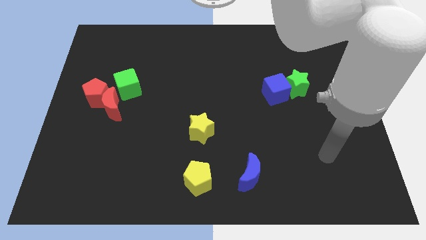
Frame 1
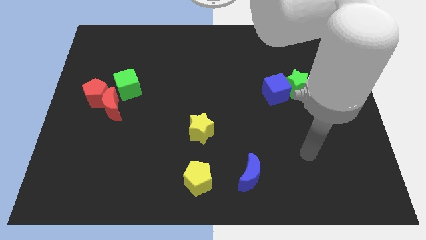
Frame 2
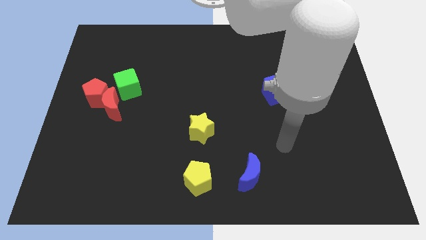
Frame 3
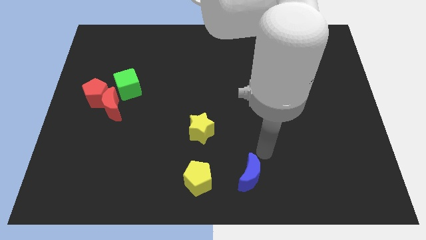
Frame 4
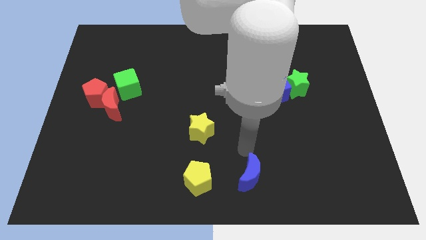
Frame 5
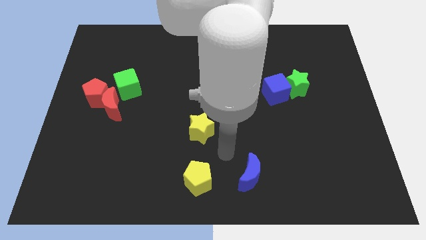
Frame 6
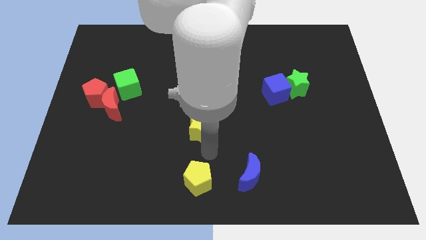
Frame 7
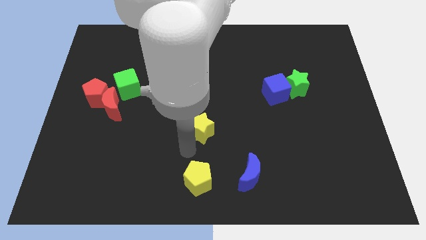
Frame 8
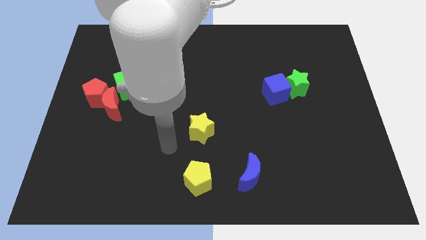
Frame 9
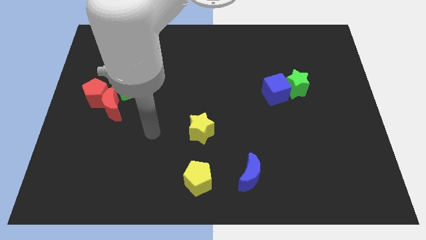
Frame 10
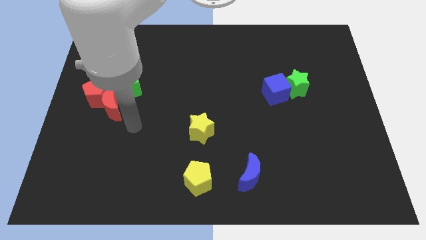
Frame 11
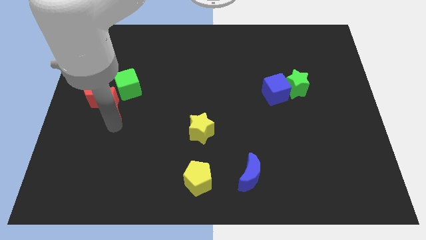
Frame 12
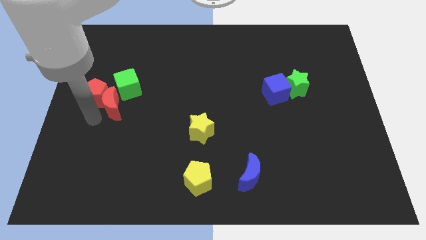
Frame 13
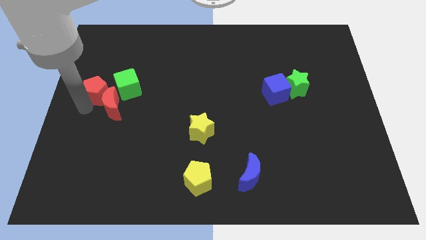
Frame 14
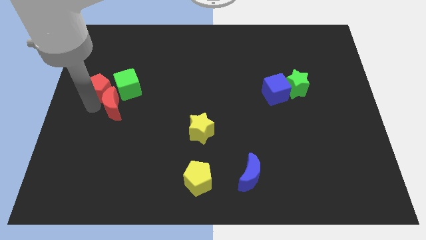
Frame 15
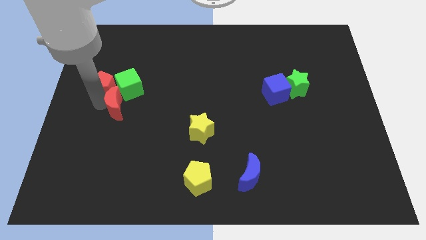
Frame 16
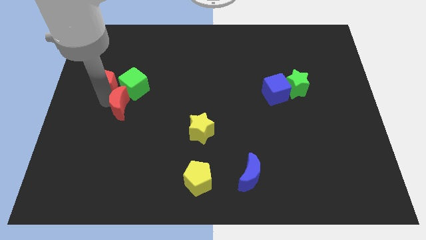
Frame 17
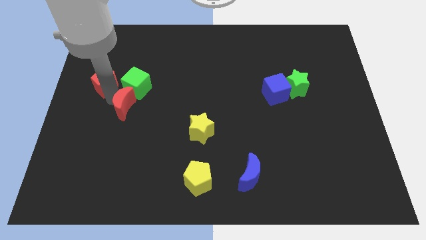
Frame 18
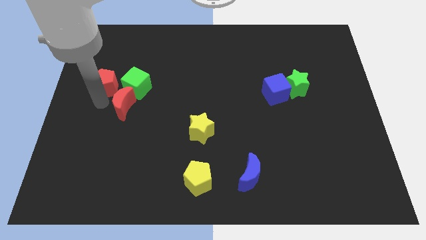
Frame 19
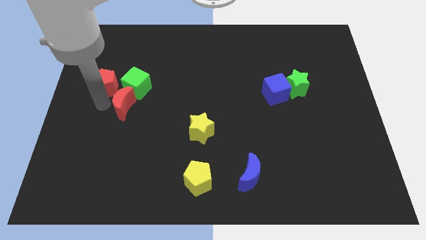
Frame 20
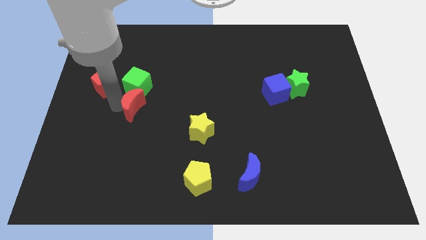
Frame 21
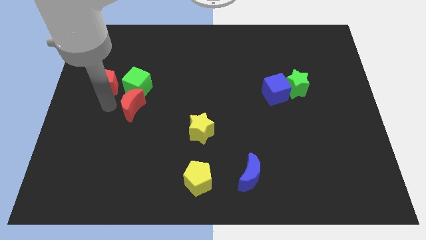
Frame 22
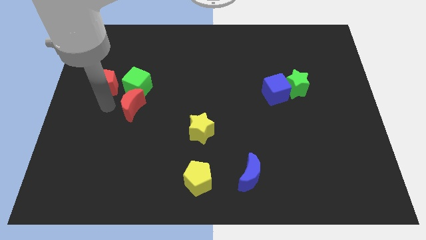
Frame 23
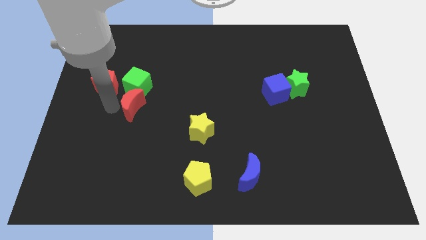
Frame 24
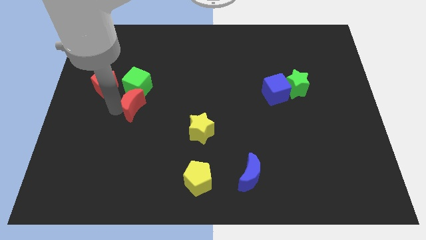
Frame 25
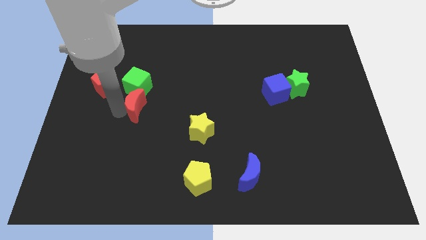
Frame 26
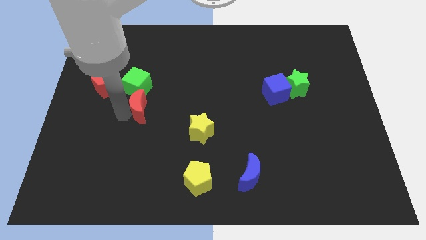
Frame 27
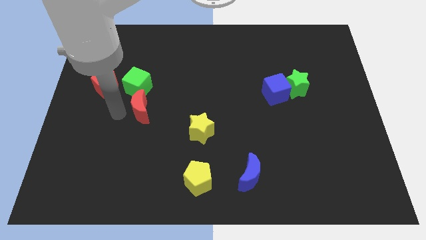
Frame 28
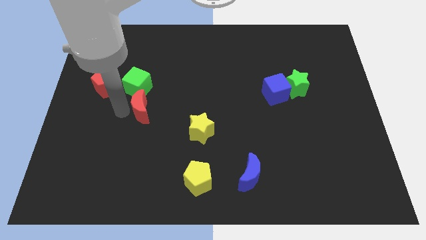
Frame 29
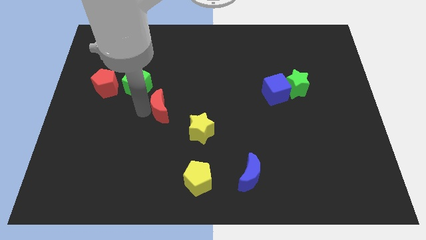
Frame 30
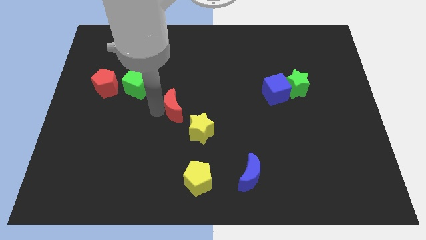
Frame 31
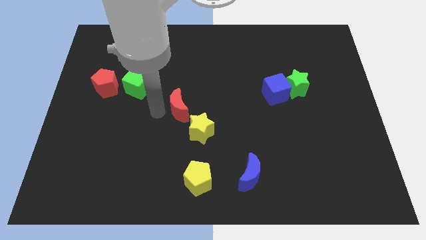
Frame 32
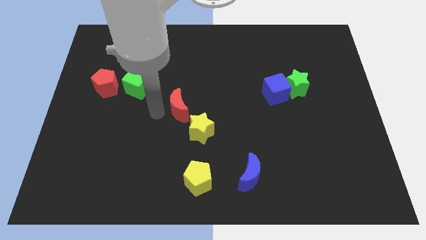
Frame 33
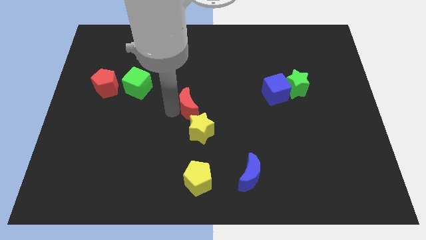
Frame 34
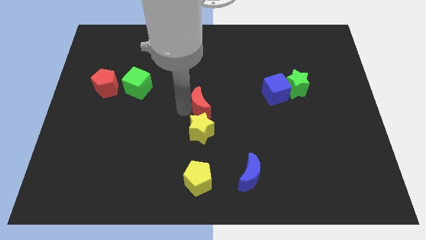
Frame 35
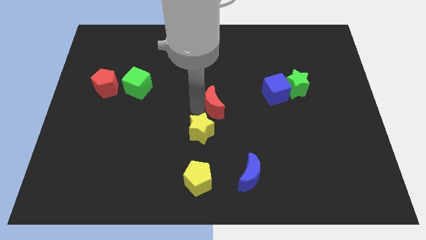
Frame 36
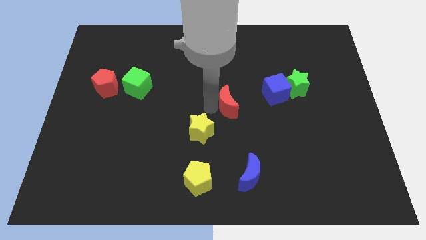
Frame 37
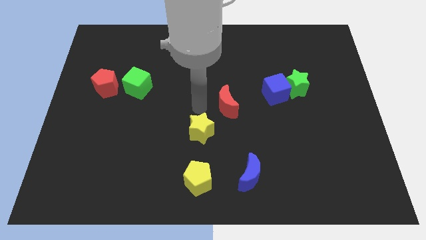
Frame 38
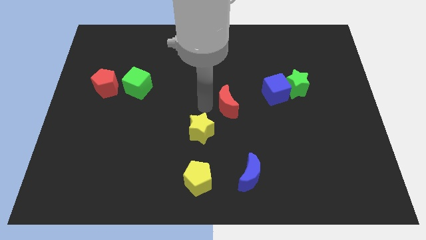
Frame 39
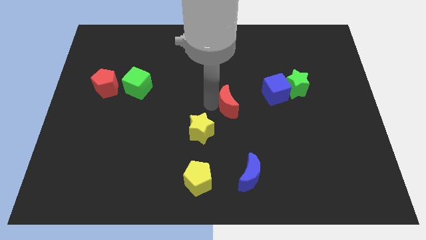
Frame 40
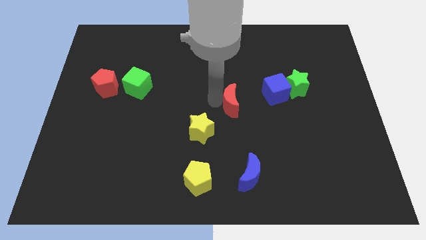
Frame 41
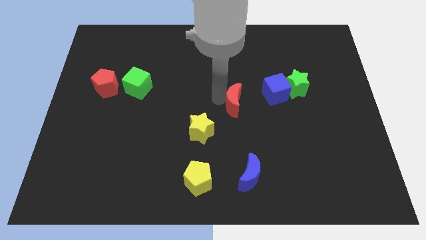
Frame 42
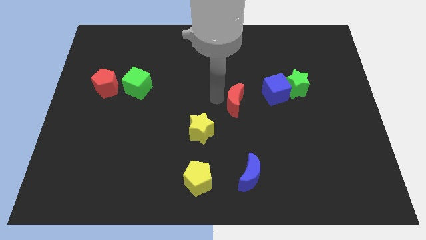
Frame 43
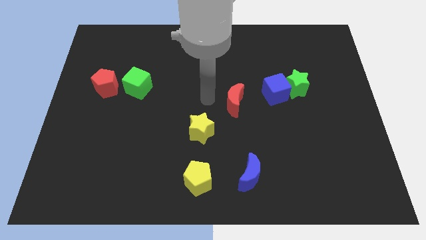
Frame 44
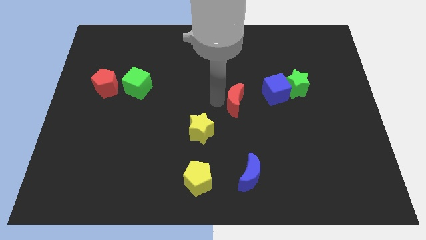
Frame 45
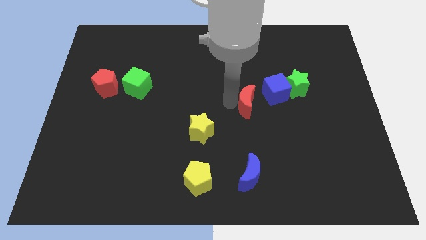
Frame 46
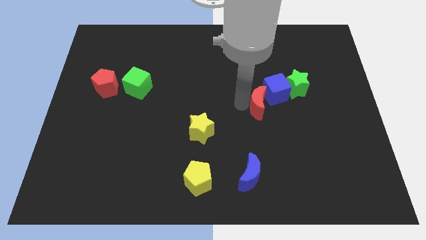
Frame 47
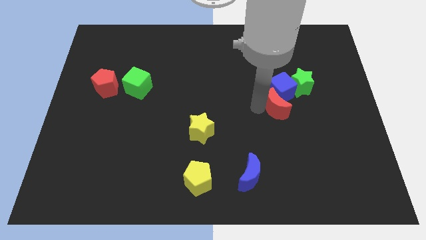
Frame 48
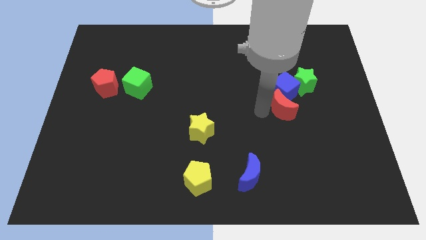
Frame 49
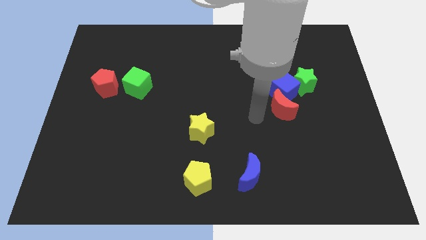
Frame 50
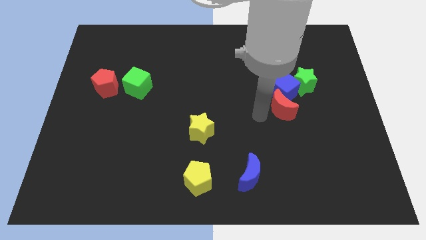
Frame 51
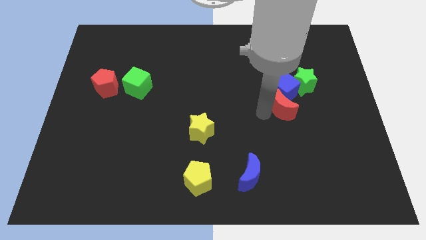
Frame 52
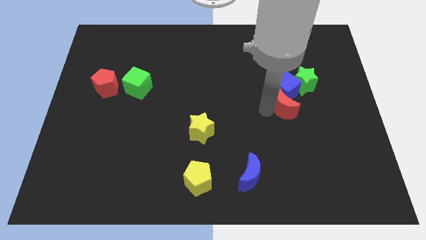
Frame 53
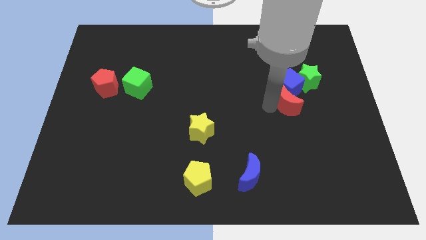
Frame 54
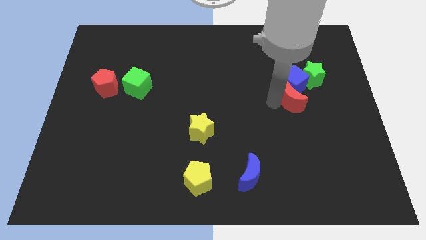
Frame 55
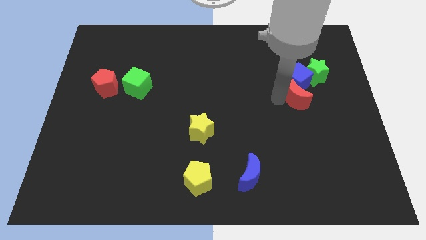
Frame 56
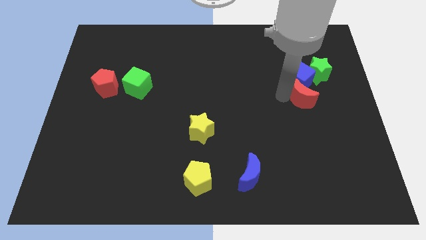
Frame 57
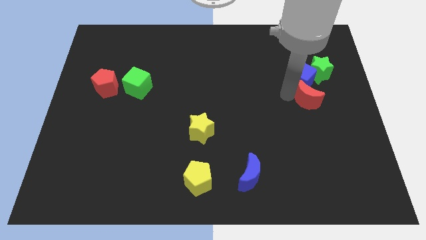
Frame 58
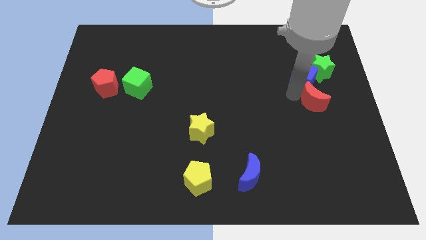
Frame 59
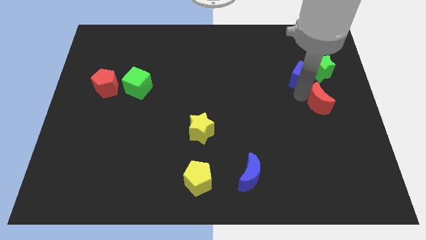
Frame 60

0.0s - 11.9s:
put the red moon to the right side of the board
